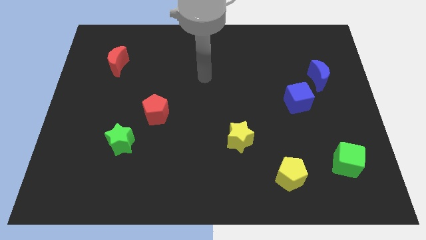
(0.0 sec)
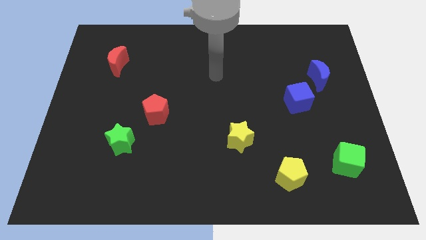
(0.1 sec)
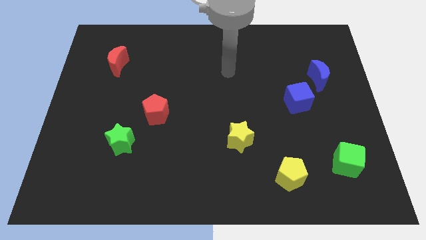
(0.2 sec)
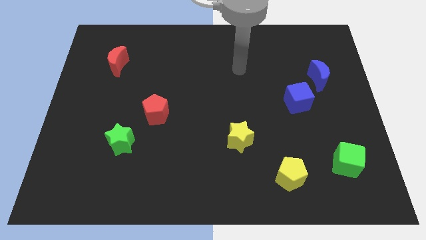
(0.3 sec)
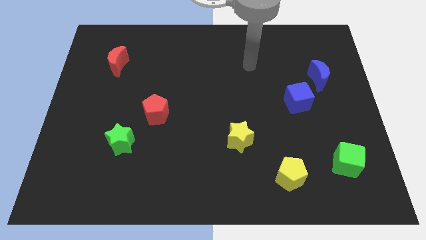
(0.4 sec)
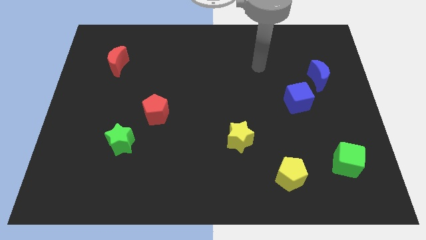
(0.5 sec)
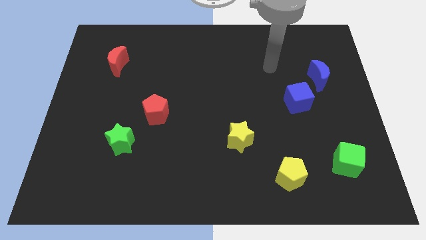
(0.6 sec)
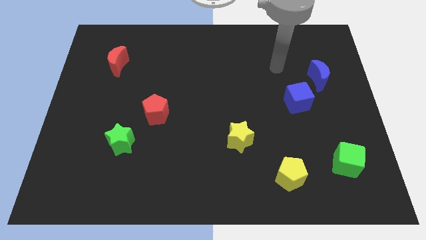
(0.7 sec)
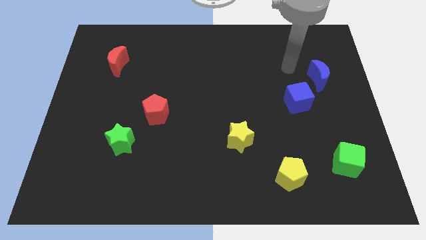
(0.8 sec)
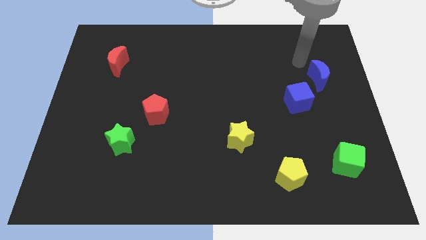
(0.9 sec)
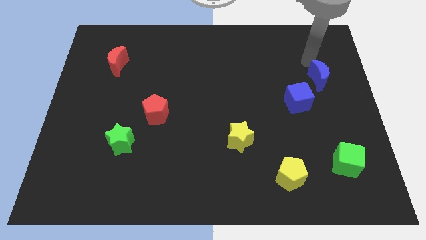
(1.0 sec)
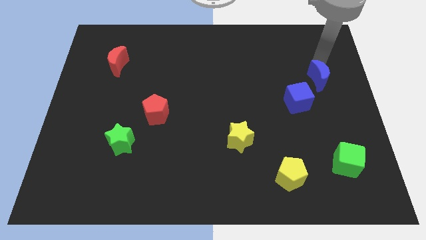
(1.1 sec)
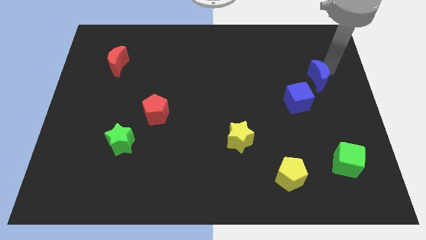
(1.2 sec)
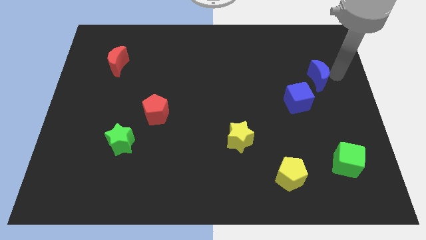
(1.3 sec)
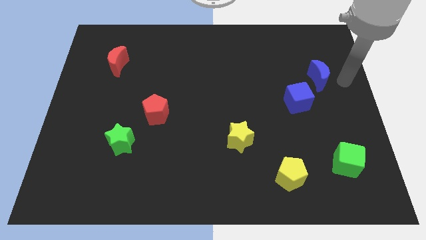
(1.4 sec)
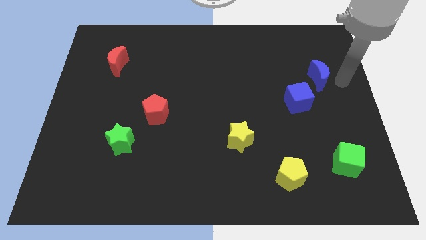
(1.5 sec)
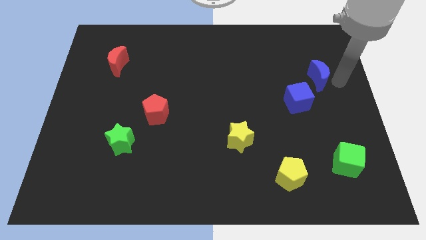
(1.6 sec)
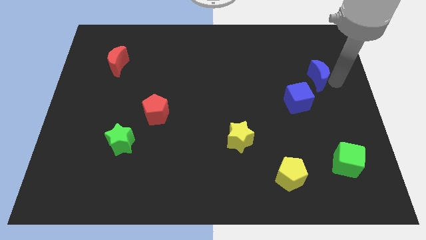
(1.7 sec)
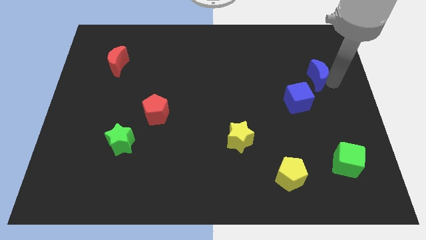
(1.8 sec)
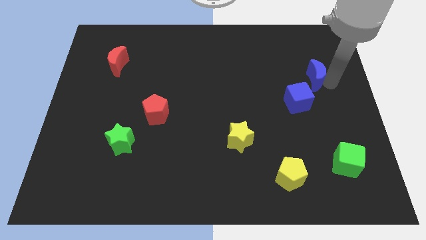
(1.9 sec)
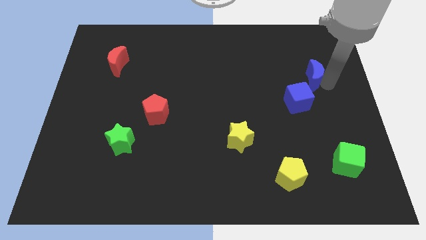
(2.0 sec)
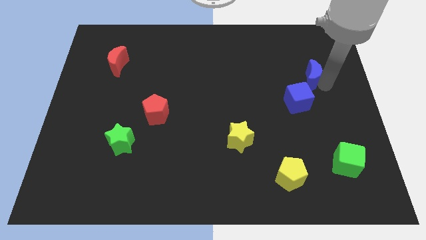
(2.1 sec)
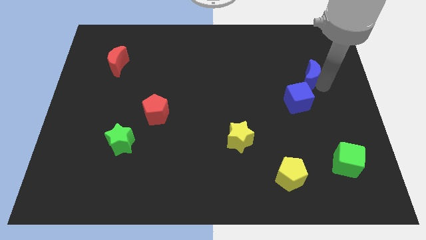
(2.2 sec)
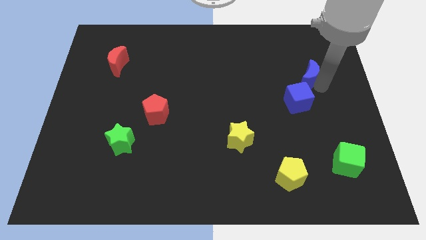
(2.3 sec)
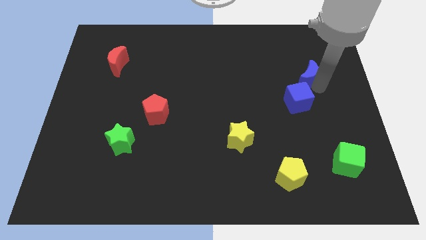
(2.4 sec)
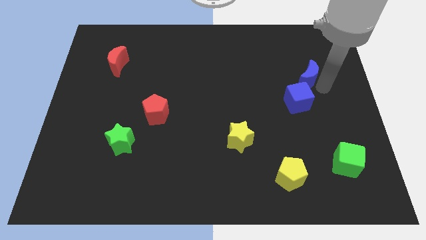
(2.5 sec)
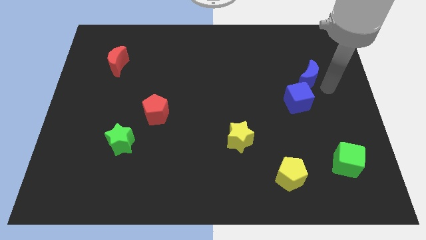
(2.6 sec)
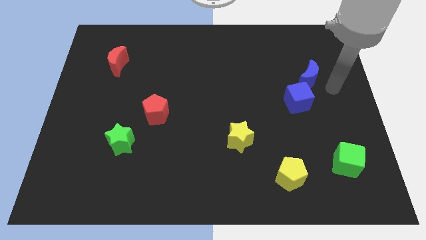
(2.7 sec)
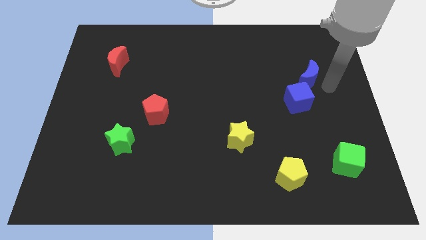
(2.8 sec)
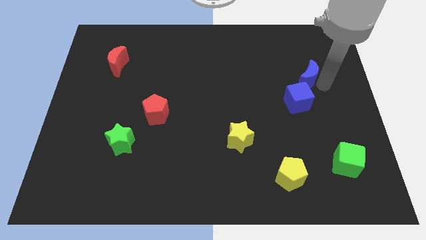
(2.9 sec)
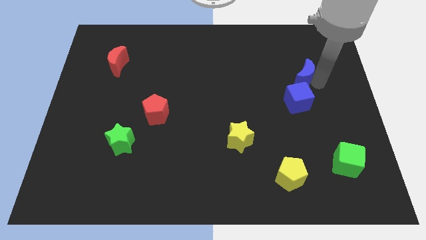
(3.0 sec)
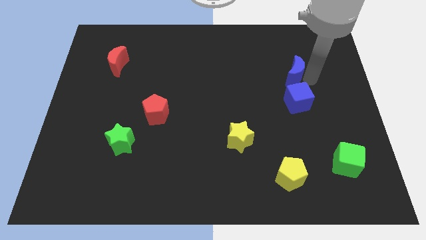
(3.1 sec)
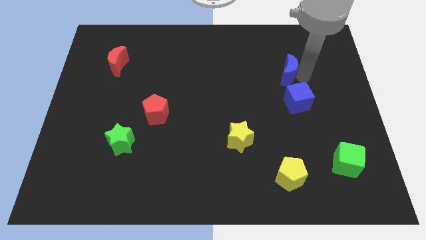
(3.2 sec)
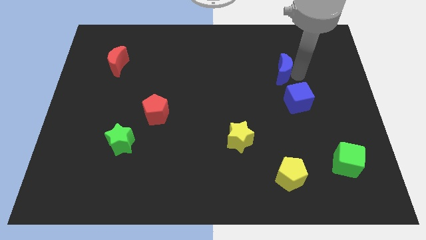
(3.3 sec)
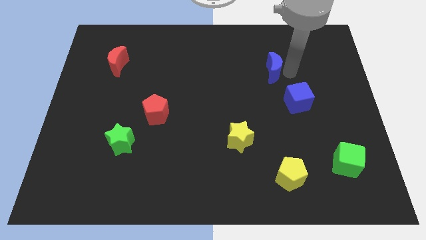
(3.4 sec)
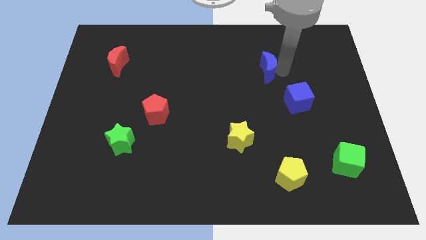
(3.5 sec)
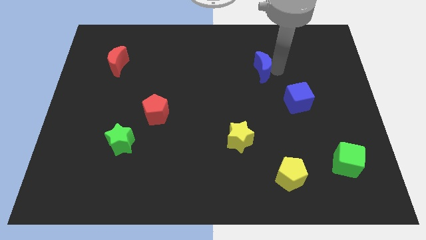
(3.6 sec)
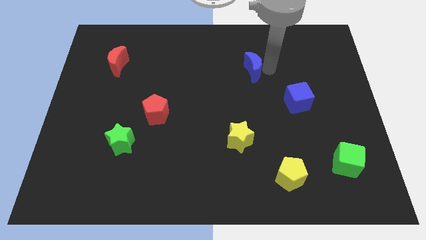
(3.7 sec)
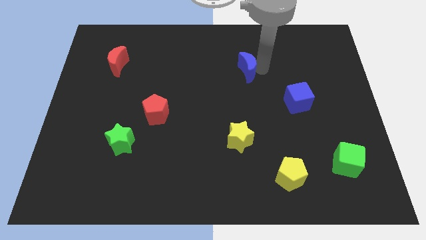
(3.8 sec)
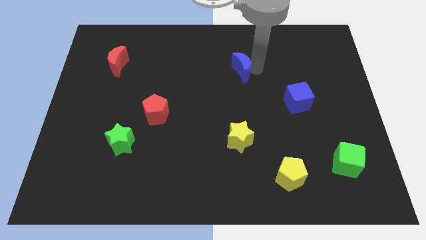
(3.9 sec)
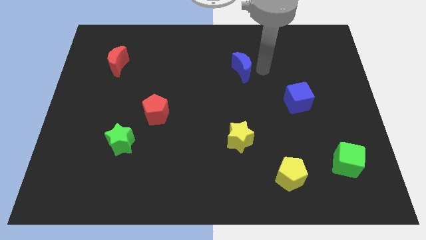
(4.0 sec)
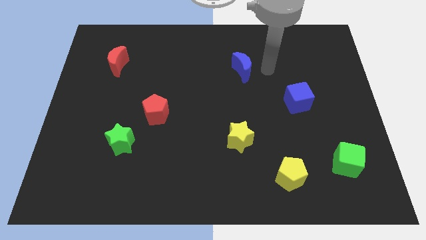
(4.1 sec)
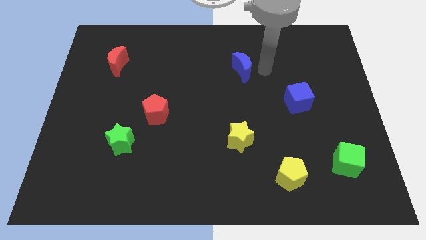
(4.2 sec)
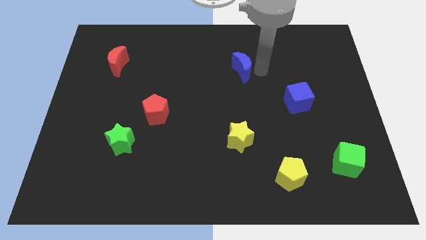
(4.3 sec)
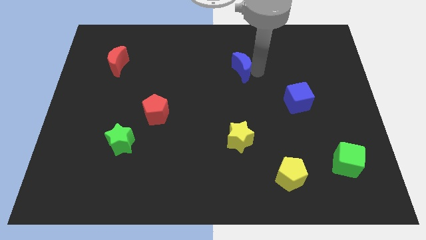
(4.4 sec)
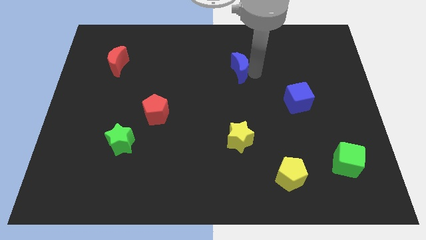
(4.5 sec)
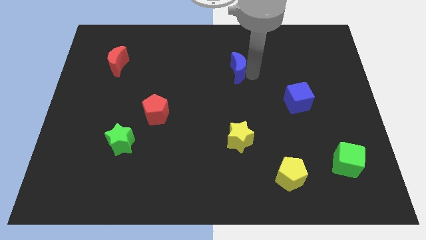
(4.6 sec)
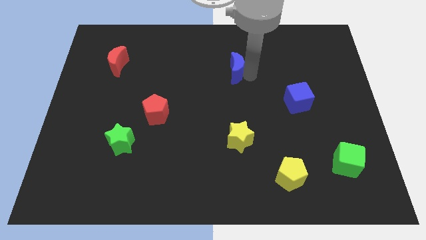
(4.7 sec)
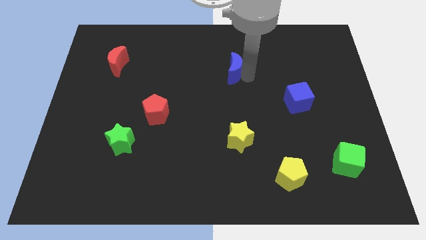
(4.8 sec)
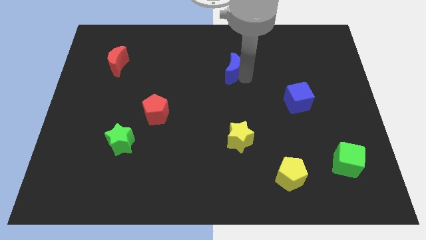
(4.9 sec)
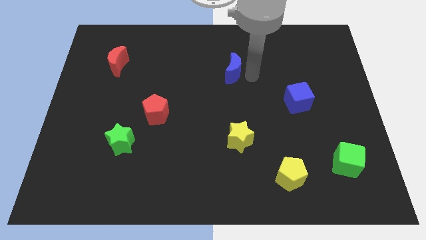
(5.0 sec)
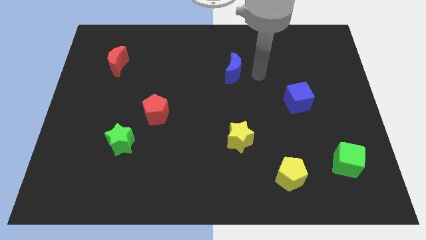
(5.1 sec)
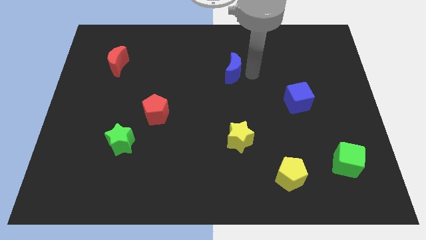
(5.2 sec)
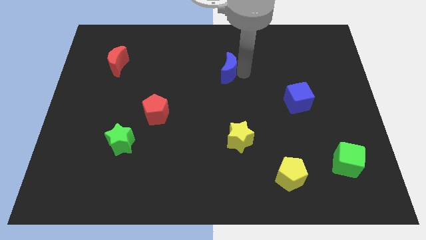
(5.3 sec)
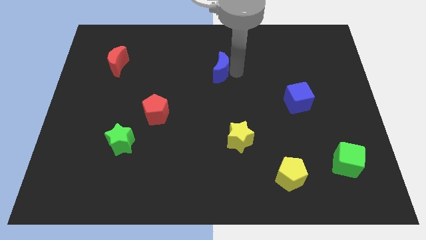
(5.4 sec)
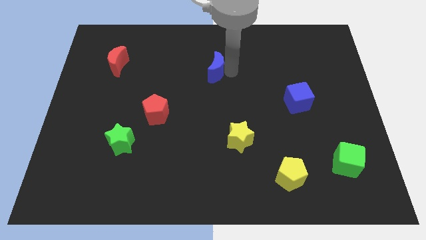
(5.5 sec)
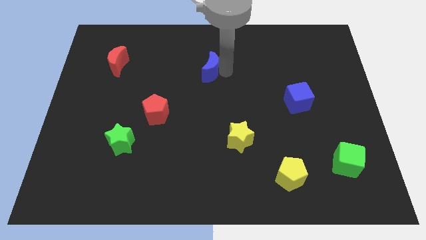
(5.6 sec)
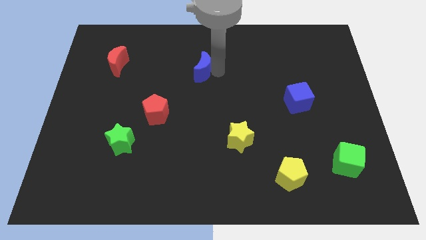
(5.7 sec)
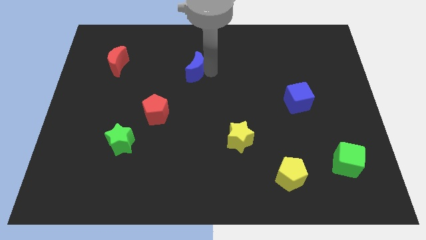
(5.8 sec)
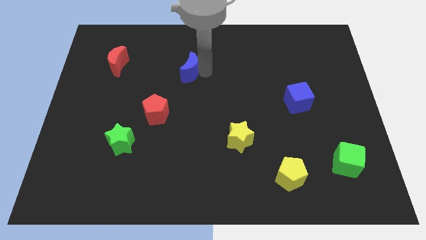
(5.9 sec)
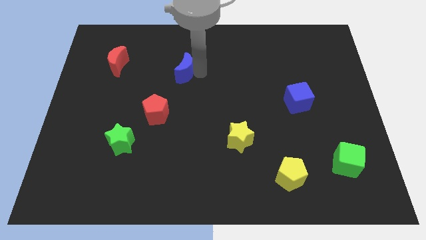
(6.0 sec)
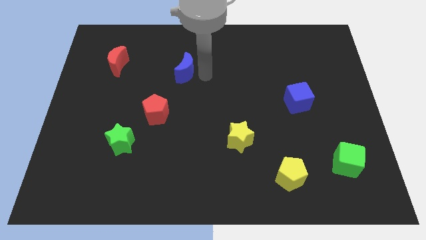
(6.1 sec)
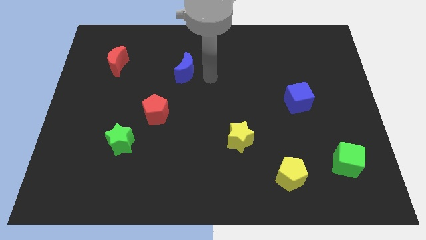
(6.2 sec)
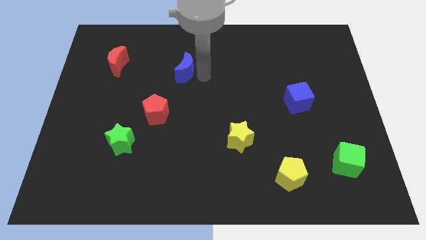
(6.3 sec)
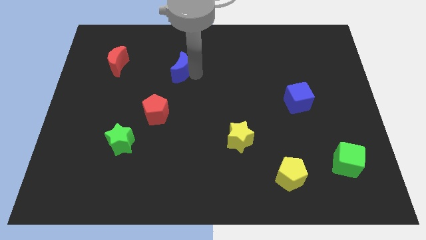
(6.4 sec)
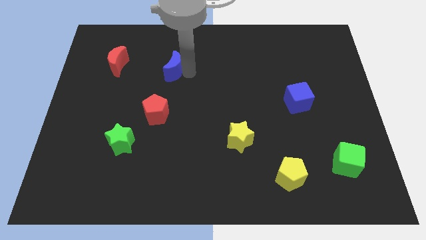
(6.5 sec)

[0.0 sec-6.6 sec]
slide the blue moon right of the red moon

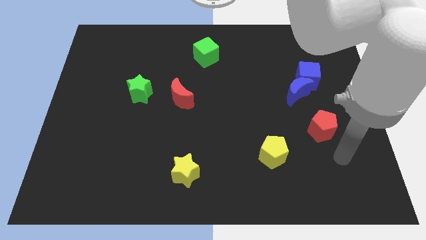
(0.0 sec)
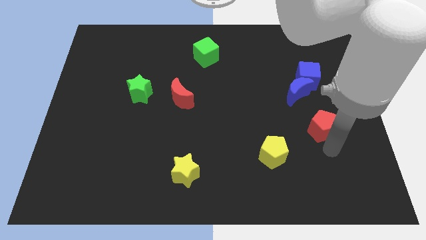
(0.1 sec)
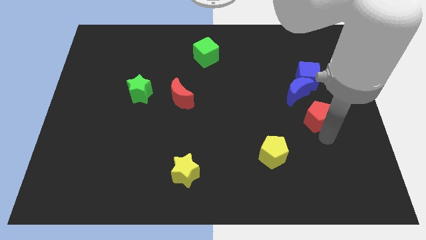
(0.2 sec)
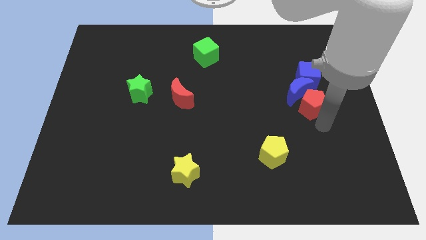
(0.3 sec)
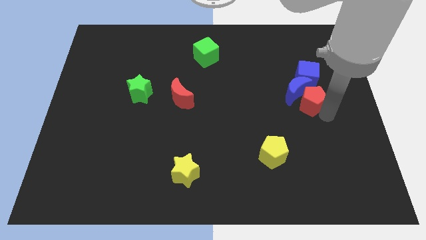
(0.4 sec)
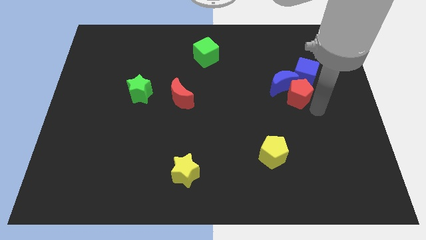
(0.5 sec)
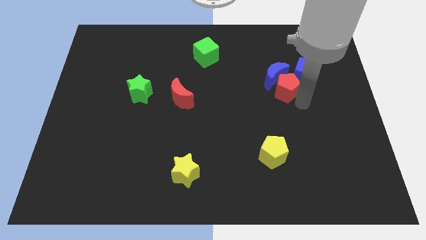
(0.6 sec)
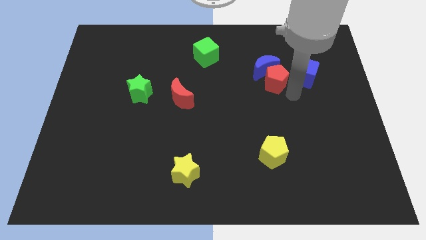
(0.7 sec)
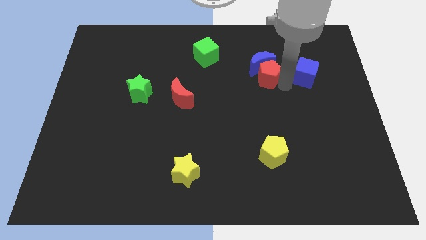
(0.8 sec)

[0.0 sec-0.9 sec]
put the blue moon to the right side of the green cube
